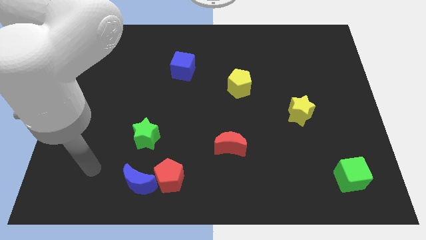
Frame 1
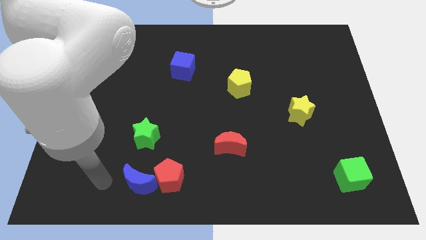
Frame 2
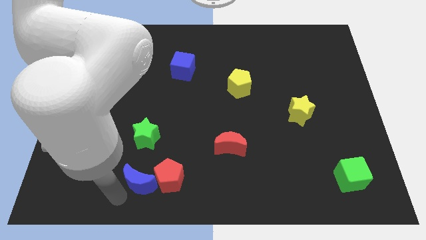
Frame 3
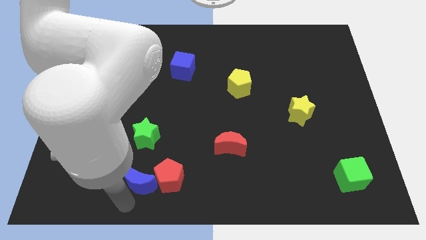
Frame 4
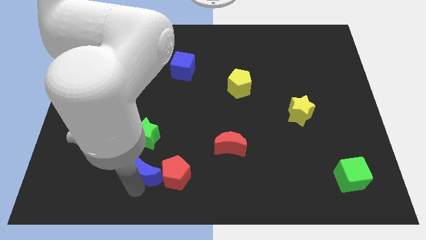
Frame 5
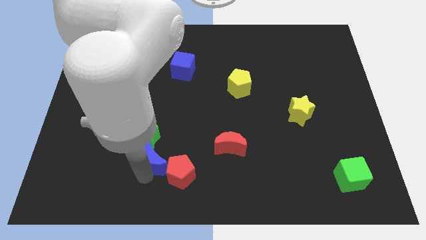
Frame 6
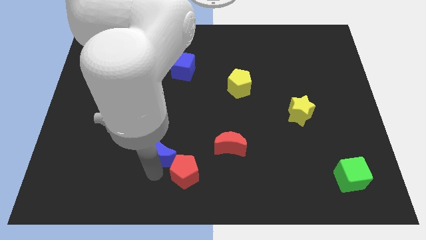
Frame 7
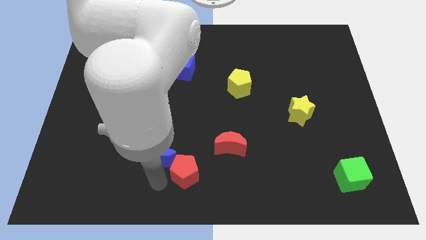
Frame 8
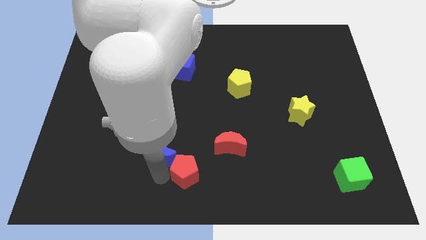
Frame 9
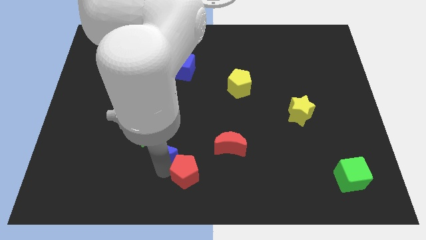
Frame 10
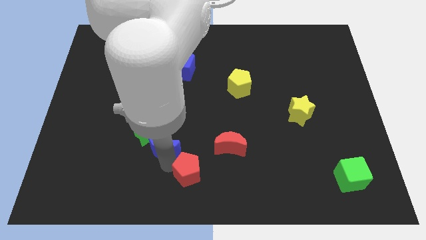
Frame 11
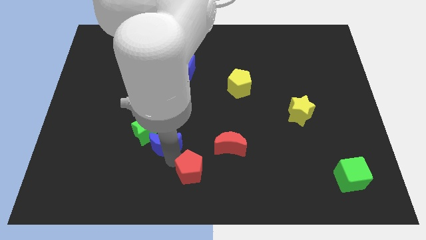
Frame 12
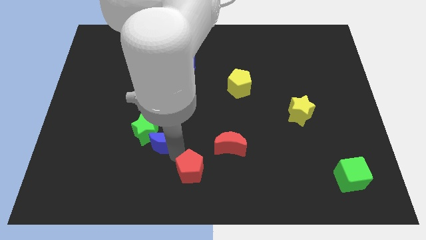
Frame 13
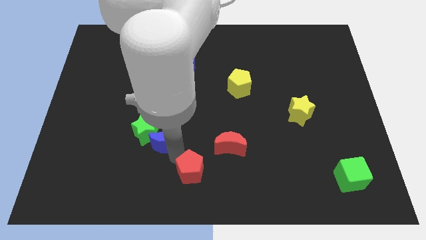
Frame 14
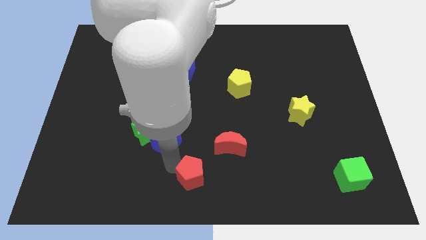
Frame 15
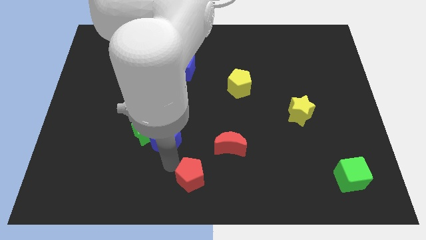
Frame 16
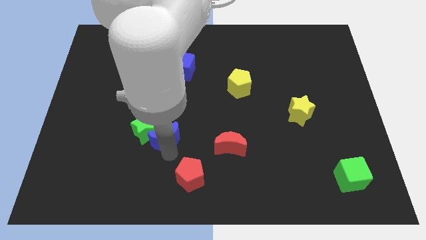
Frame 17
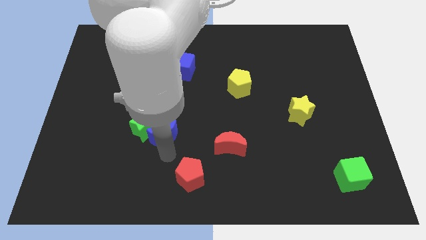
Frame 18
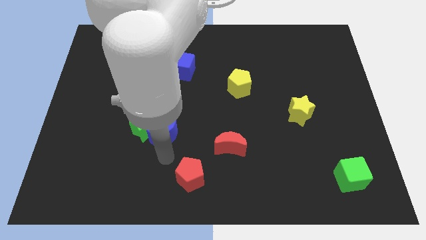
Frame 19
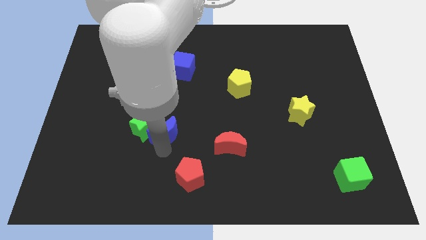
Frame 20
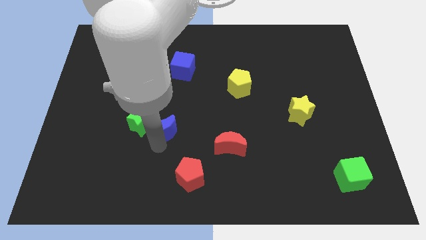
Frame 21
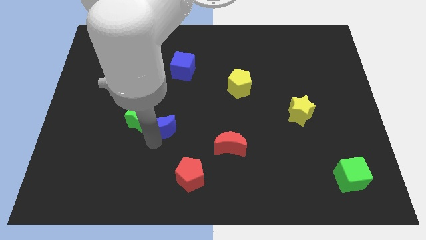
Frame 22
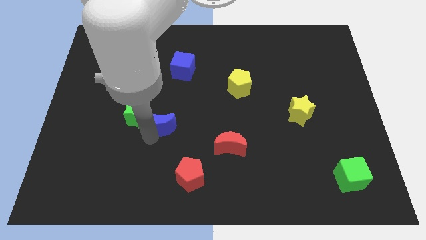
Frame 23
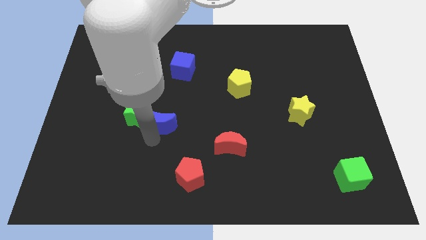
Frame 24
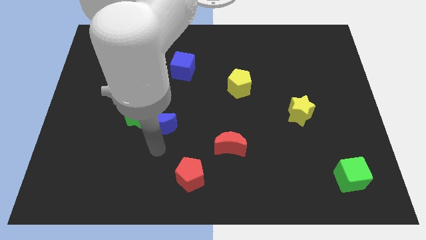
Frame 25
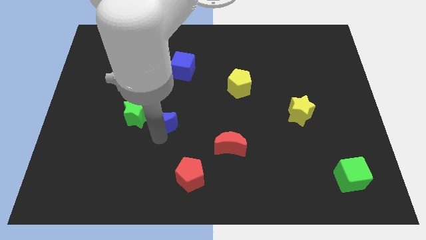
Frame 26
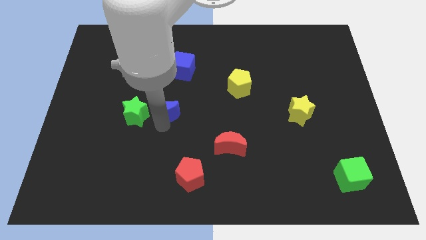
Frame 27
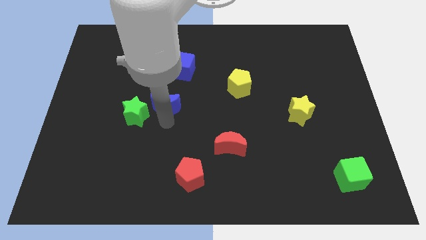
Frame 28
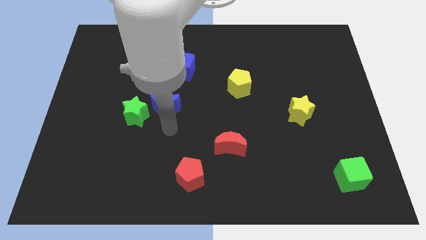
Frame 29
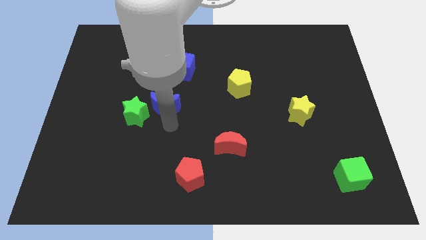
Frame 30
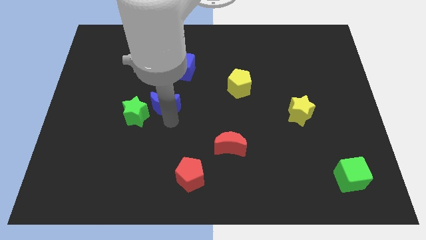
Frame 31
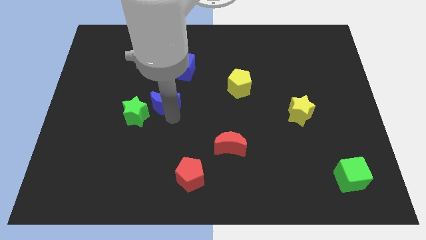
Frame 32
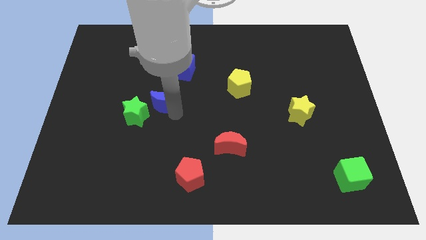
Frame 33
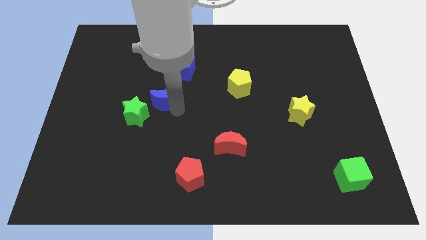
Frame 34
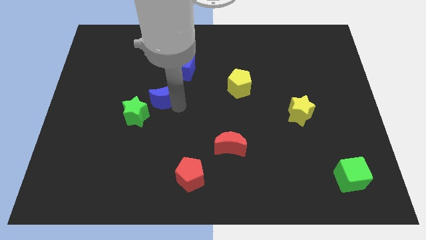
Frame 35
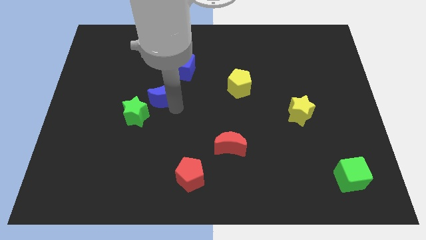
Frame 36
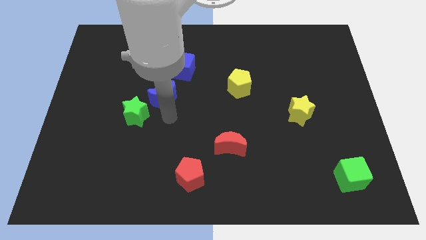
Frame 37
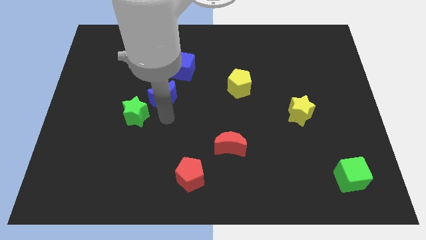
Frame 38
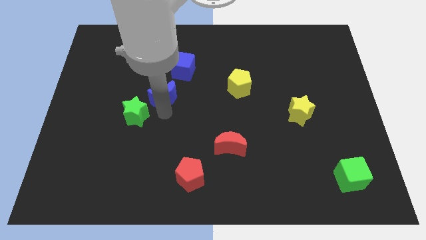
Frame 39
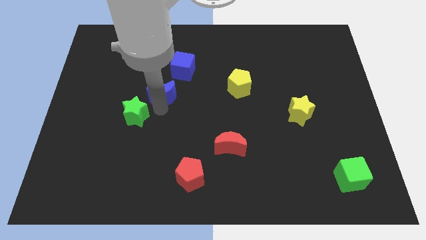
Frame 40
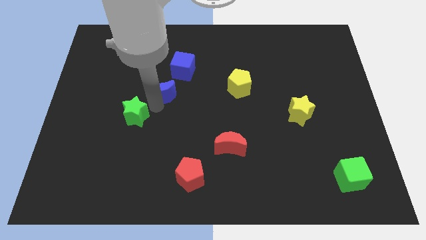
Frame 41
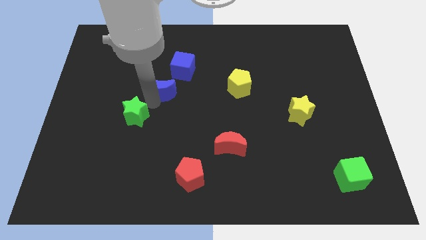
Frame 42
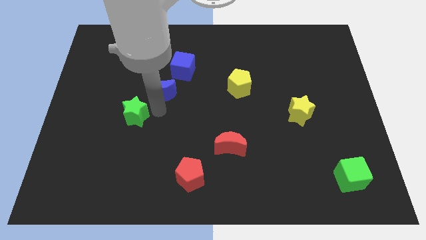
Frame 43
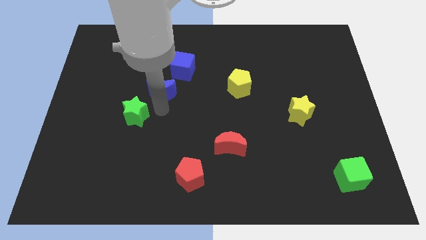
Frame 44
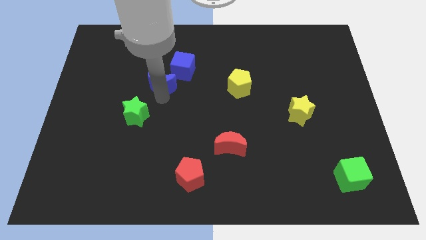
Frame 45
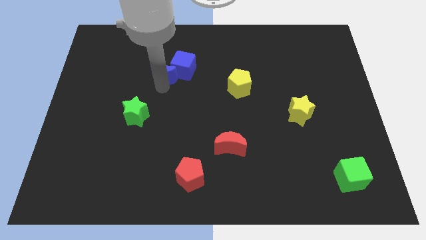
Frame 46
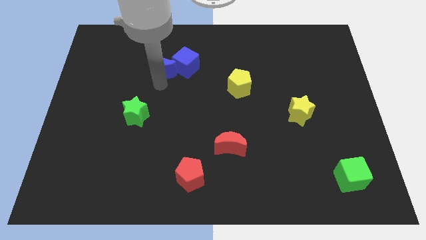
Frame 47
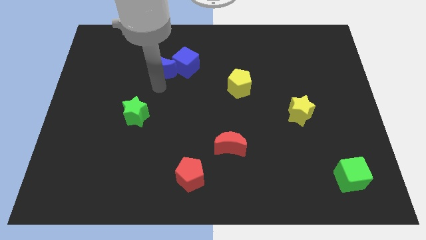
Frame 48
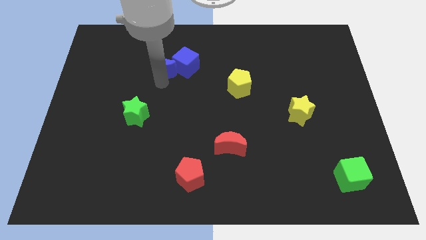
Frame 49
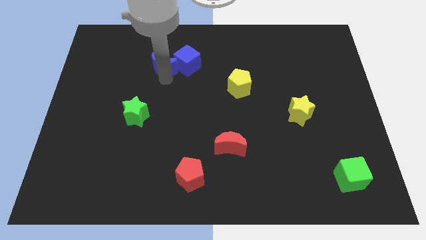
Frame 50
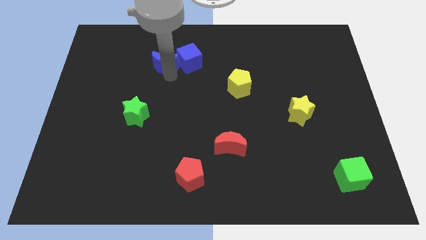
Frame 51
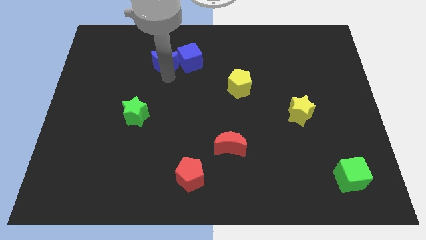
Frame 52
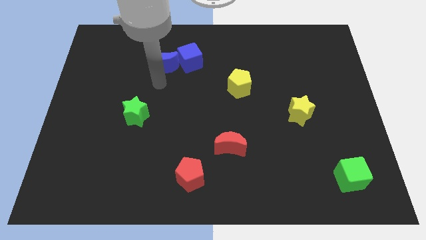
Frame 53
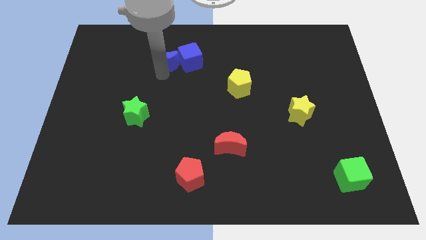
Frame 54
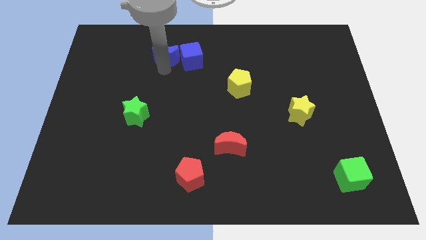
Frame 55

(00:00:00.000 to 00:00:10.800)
put the blue moon to the top left side of the blue cube

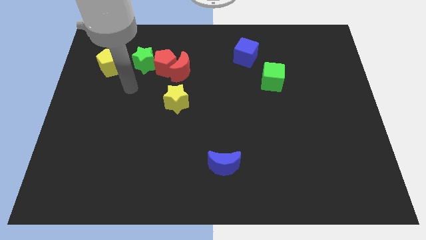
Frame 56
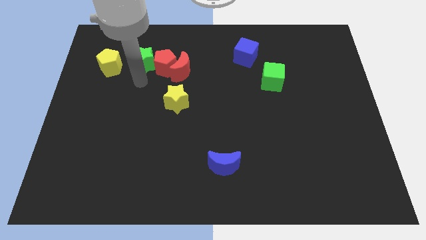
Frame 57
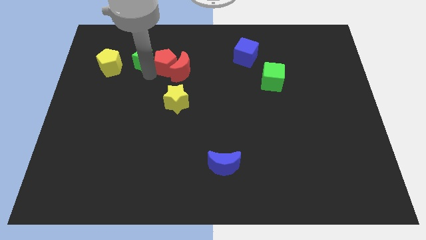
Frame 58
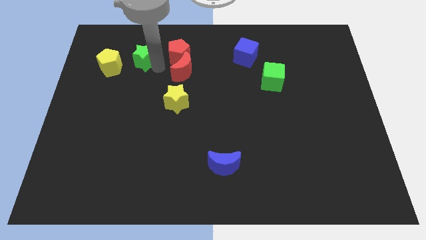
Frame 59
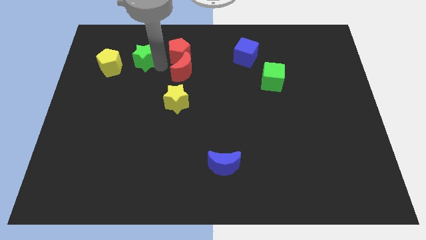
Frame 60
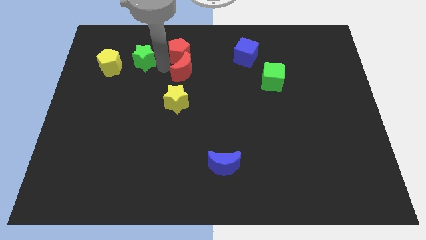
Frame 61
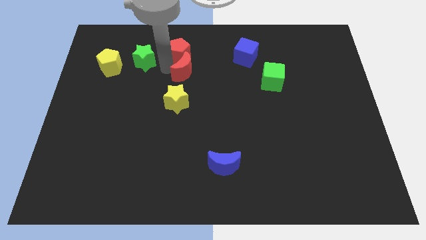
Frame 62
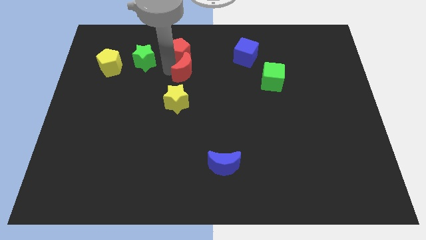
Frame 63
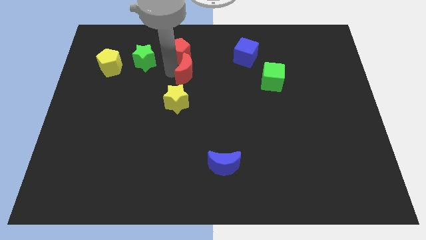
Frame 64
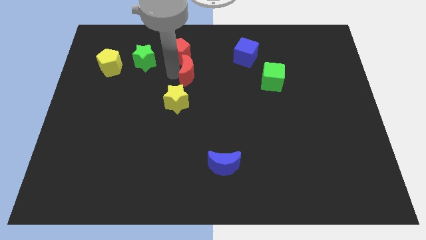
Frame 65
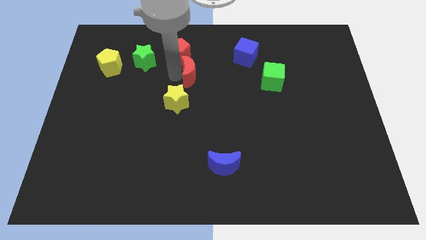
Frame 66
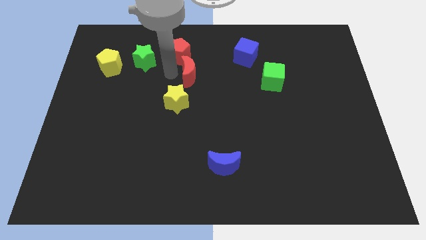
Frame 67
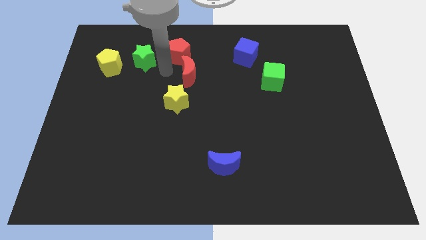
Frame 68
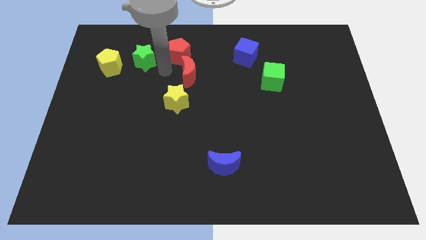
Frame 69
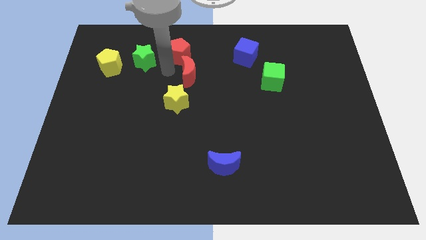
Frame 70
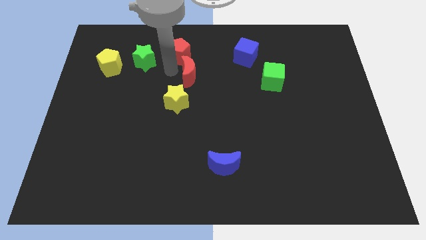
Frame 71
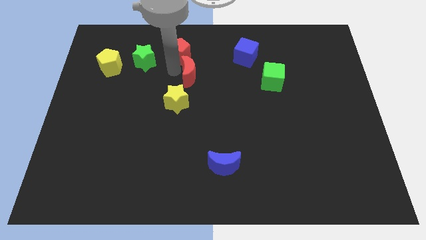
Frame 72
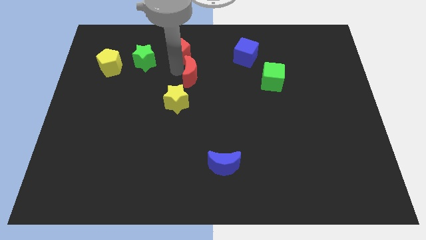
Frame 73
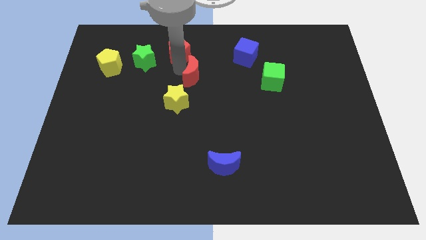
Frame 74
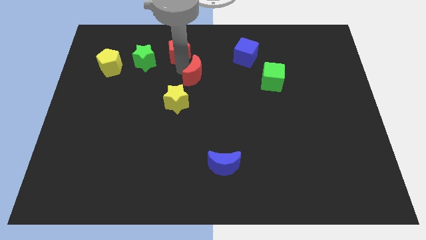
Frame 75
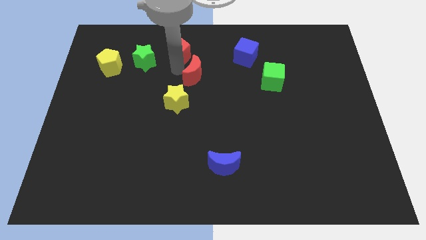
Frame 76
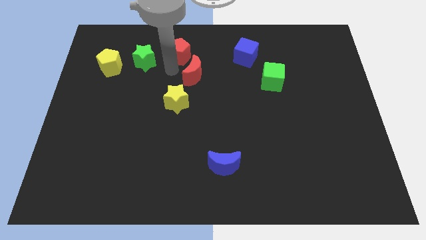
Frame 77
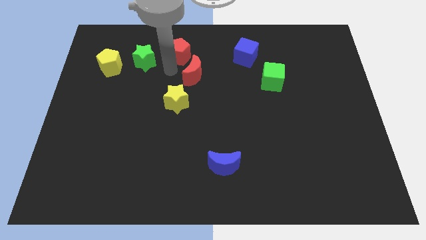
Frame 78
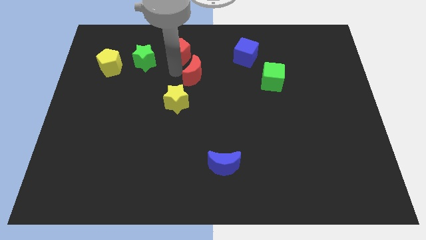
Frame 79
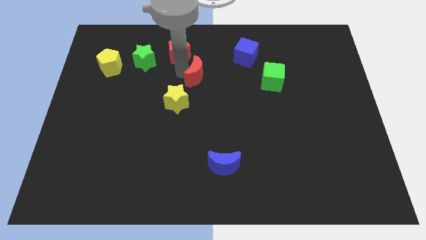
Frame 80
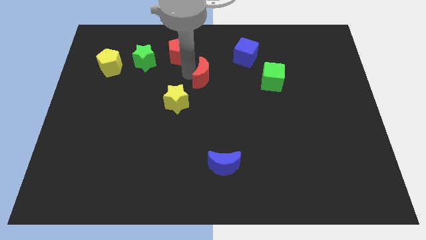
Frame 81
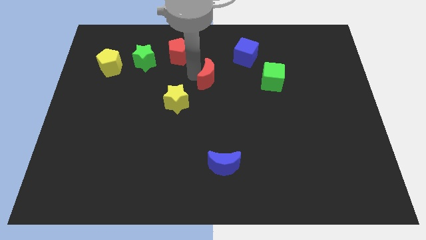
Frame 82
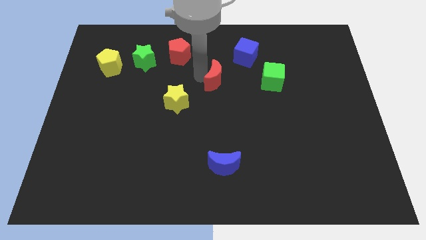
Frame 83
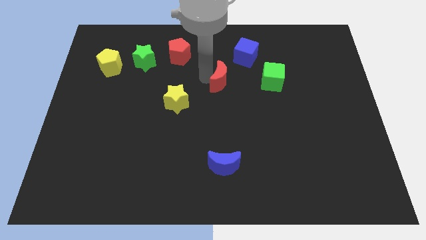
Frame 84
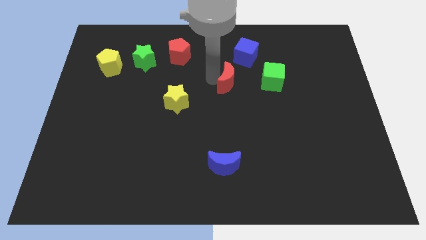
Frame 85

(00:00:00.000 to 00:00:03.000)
put the red moon to the bottom of the blue cube
